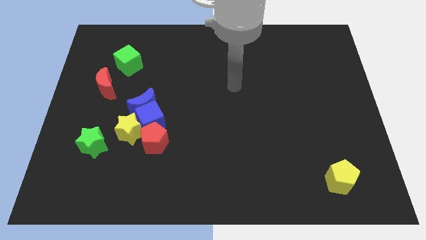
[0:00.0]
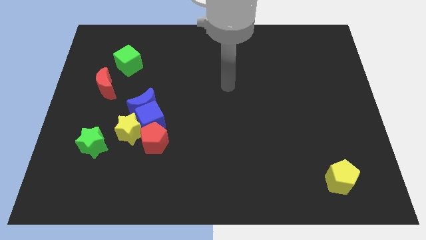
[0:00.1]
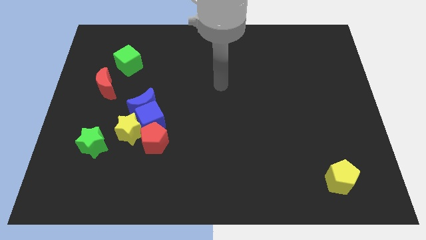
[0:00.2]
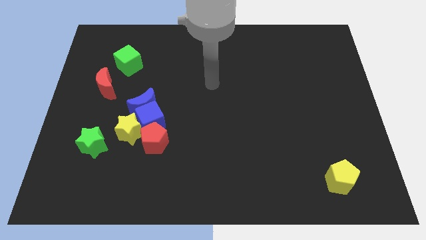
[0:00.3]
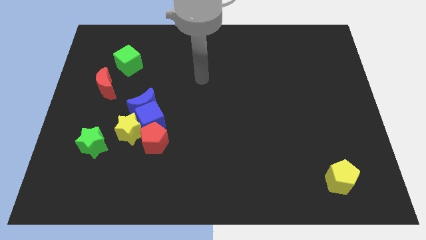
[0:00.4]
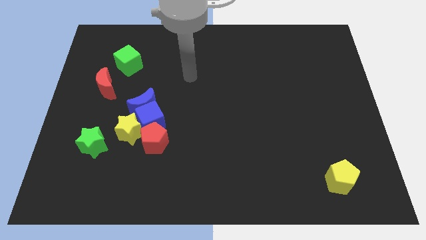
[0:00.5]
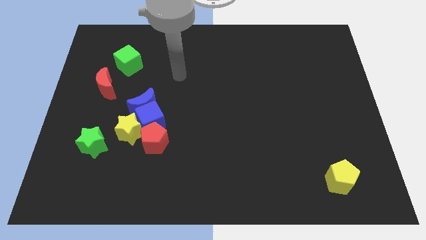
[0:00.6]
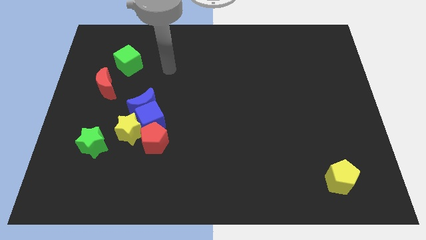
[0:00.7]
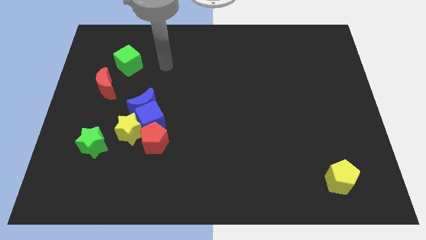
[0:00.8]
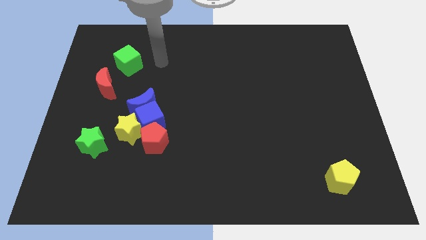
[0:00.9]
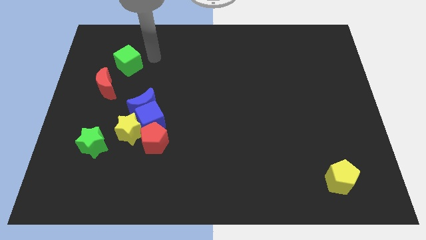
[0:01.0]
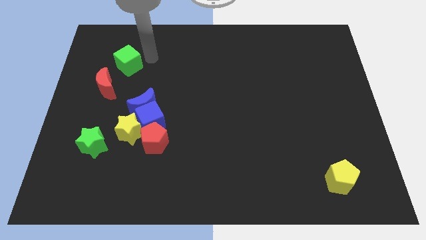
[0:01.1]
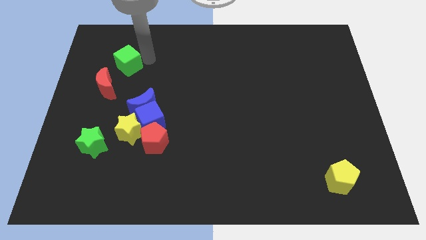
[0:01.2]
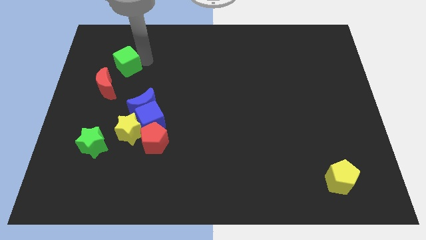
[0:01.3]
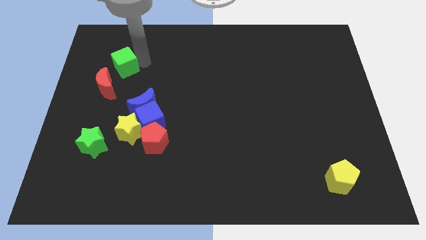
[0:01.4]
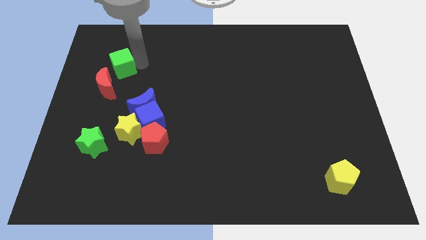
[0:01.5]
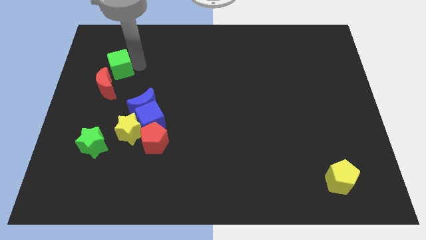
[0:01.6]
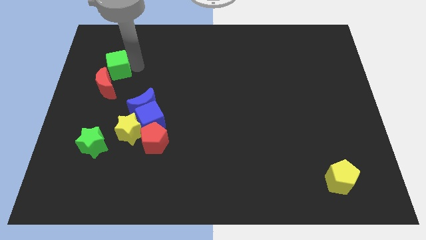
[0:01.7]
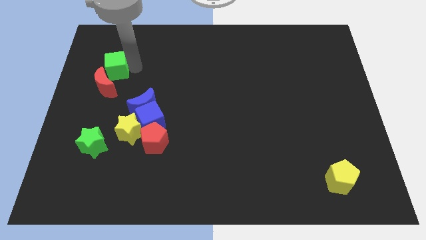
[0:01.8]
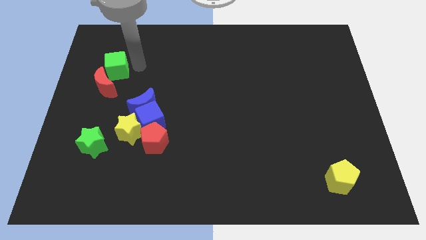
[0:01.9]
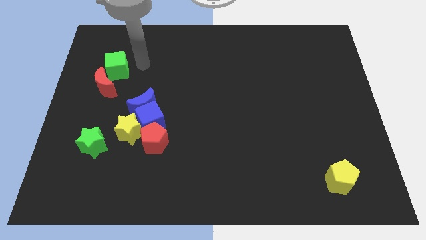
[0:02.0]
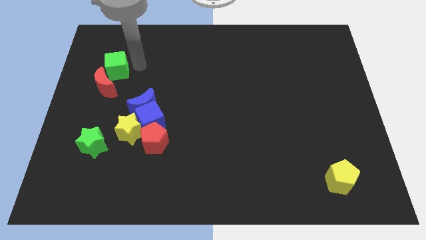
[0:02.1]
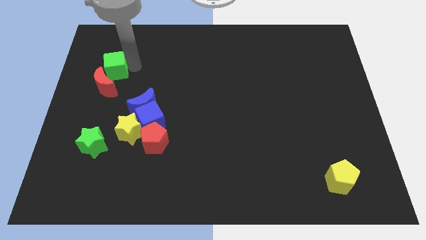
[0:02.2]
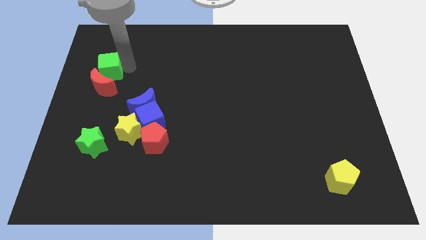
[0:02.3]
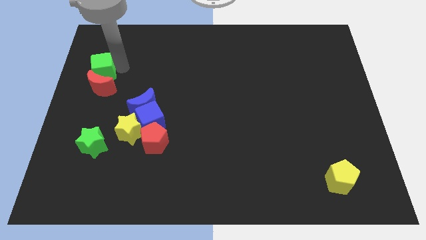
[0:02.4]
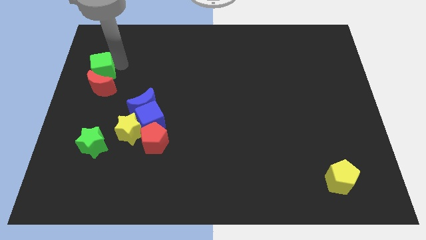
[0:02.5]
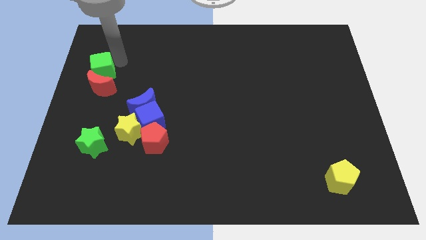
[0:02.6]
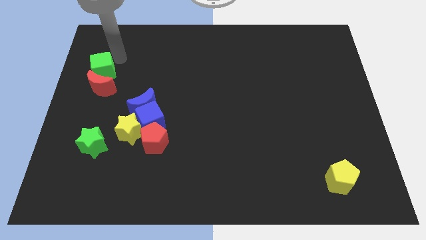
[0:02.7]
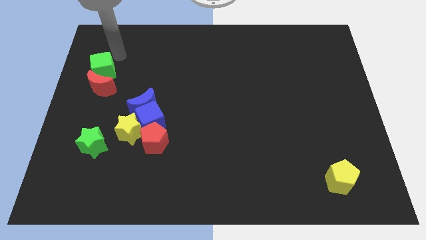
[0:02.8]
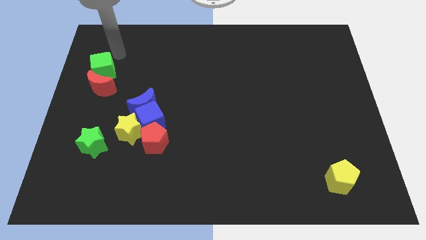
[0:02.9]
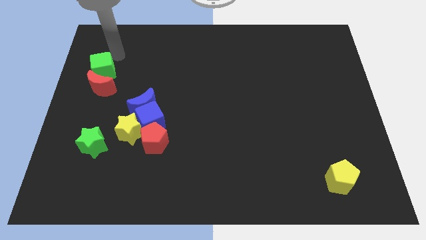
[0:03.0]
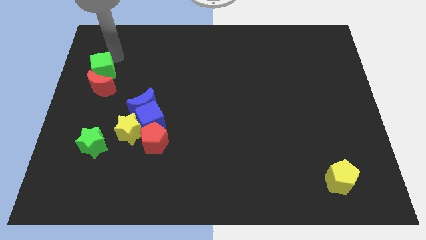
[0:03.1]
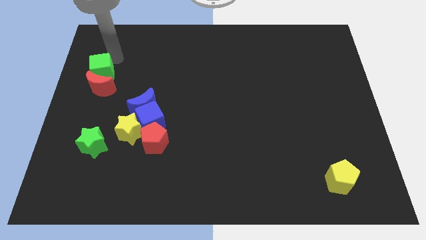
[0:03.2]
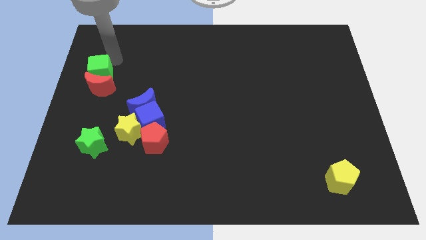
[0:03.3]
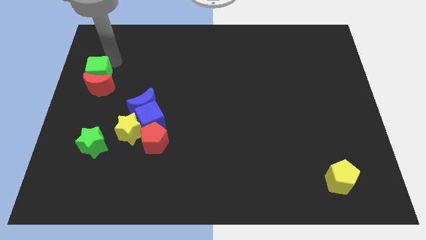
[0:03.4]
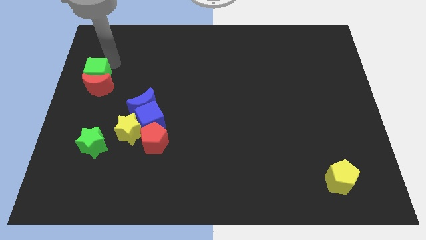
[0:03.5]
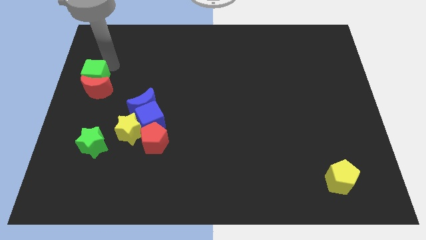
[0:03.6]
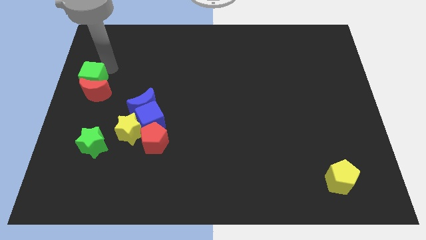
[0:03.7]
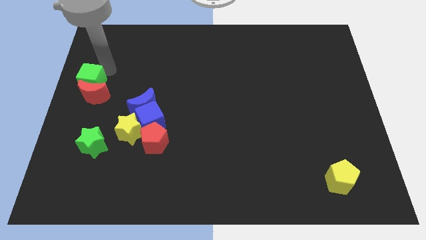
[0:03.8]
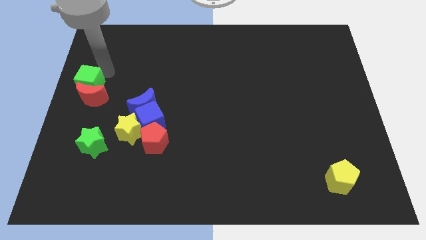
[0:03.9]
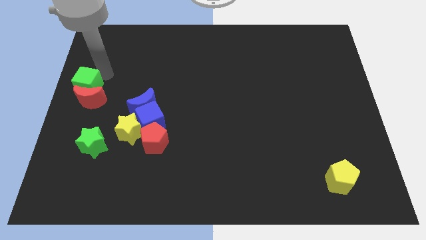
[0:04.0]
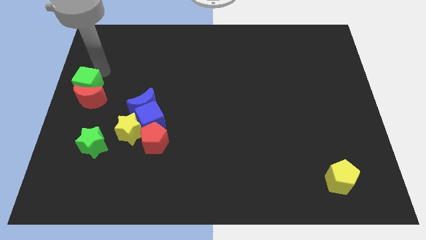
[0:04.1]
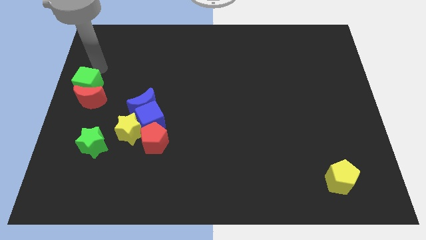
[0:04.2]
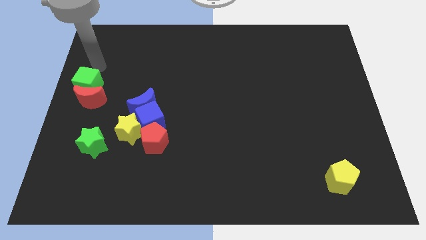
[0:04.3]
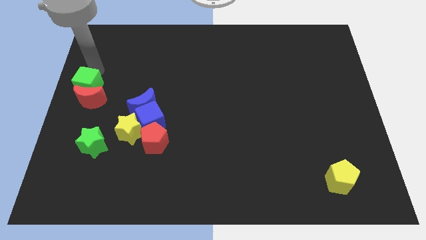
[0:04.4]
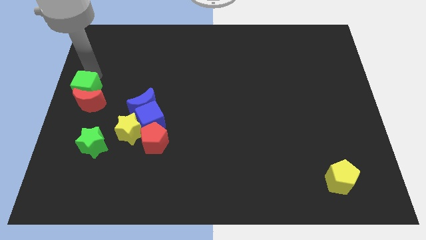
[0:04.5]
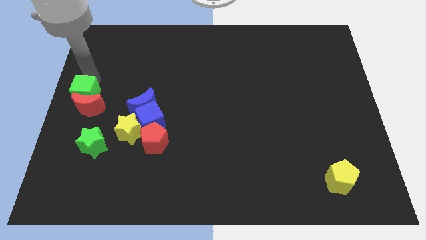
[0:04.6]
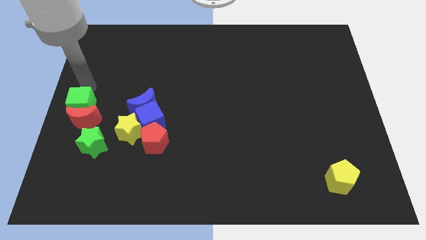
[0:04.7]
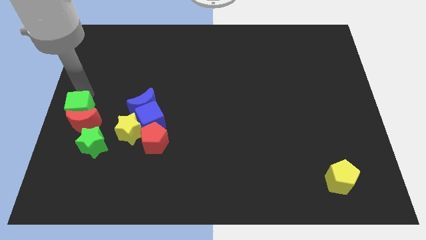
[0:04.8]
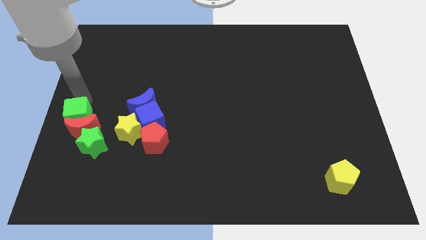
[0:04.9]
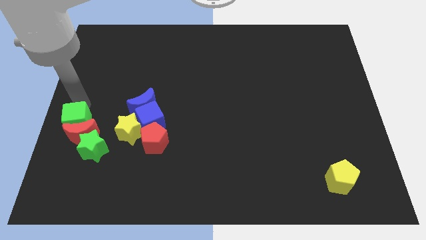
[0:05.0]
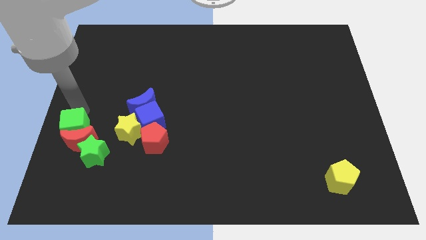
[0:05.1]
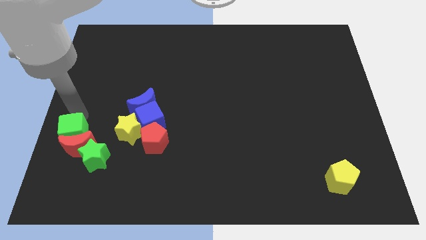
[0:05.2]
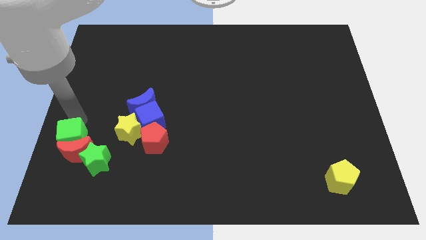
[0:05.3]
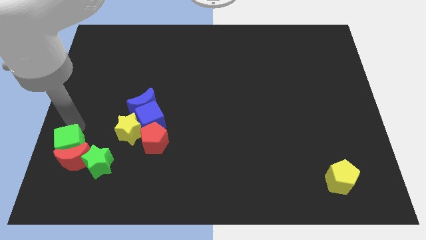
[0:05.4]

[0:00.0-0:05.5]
slide the green cube down

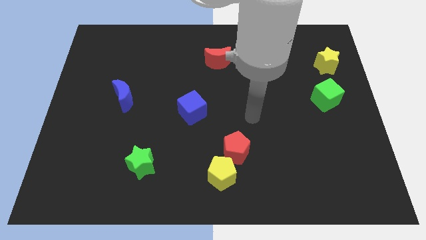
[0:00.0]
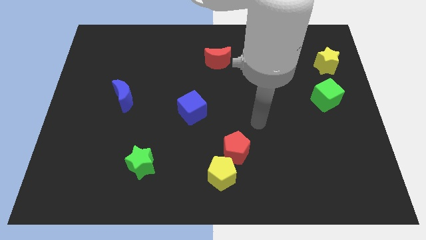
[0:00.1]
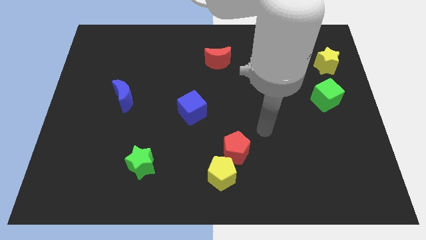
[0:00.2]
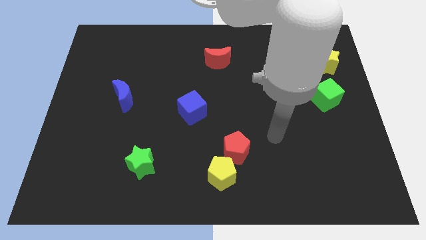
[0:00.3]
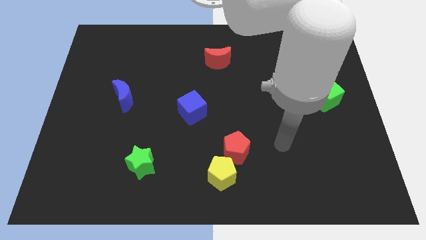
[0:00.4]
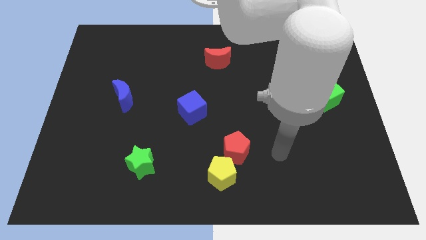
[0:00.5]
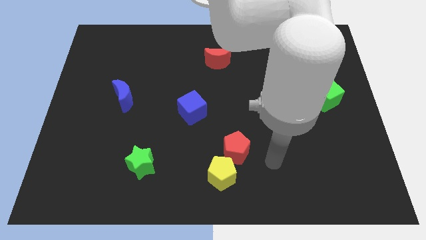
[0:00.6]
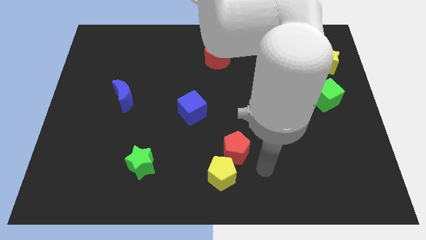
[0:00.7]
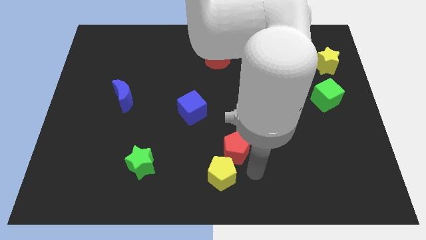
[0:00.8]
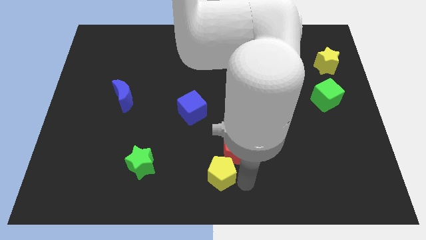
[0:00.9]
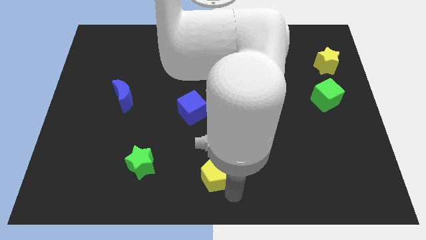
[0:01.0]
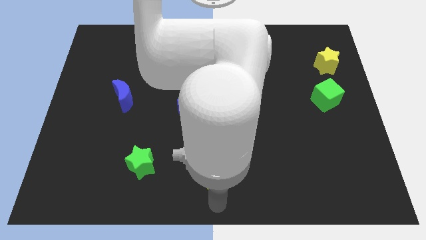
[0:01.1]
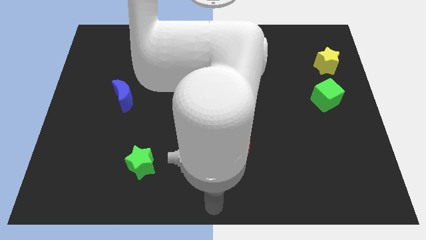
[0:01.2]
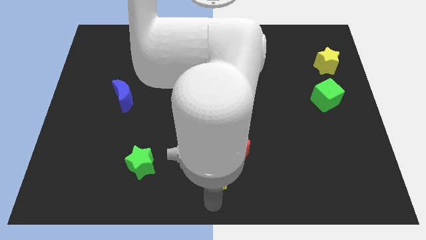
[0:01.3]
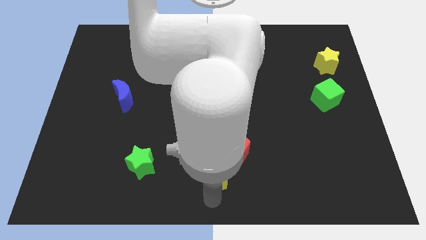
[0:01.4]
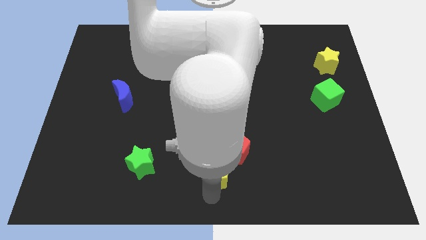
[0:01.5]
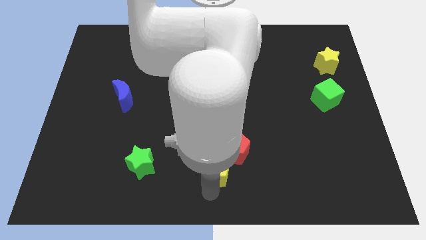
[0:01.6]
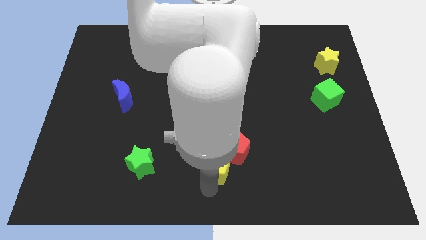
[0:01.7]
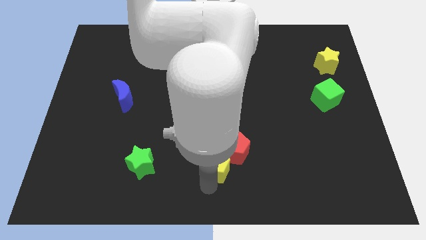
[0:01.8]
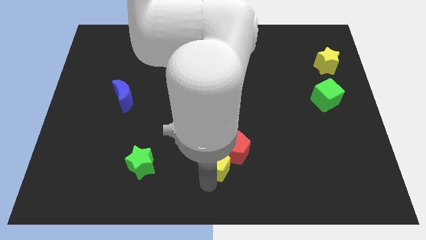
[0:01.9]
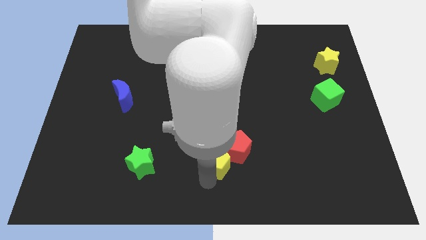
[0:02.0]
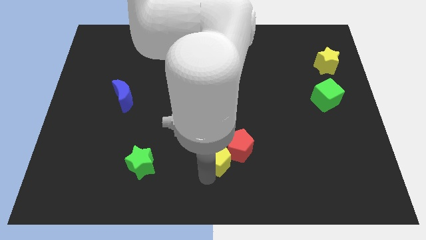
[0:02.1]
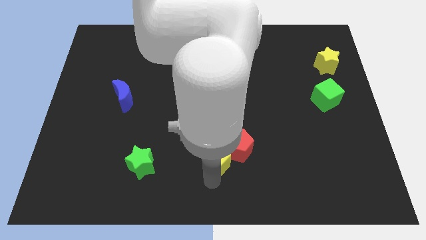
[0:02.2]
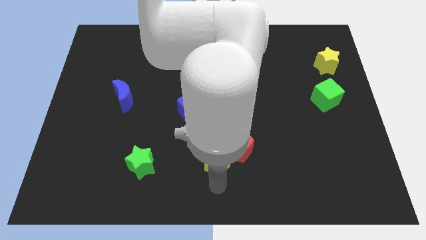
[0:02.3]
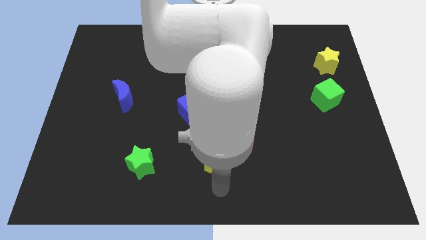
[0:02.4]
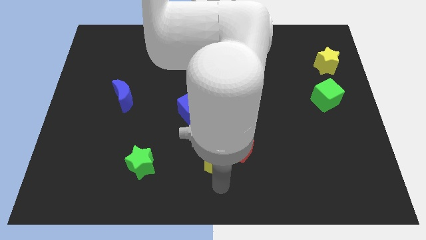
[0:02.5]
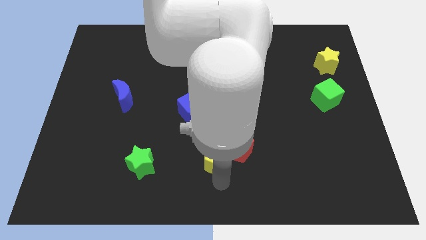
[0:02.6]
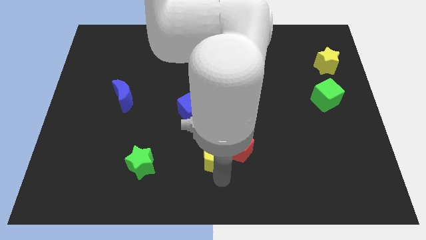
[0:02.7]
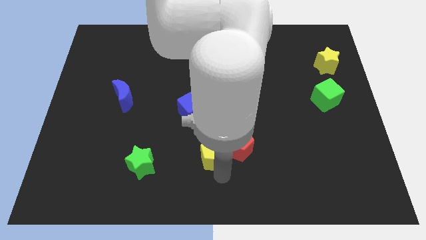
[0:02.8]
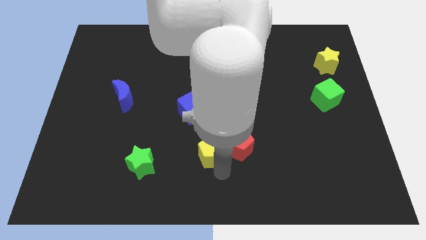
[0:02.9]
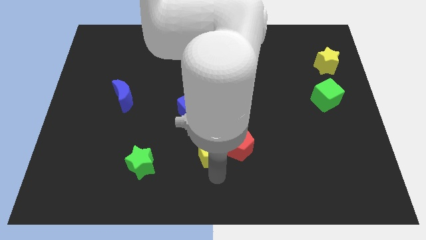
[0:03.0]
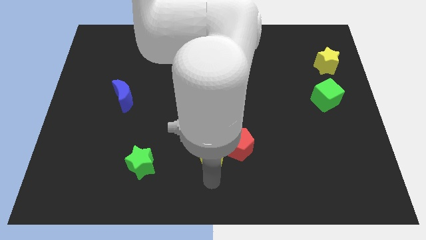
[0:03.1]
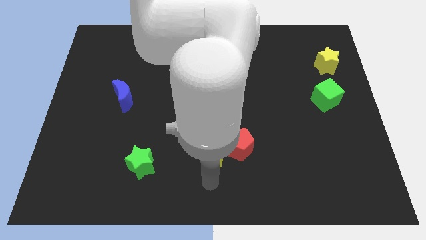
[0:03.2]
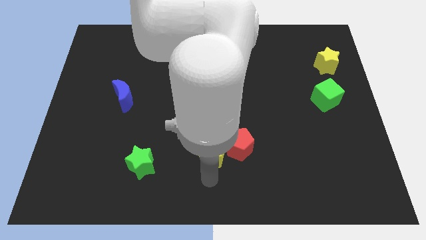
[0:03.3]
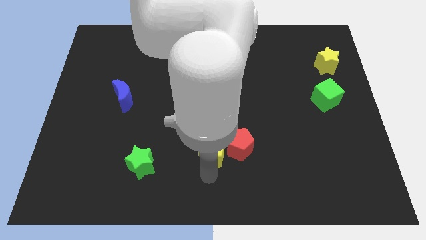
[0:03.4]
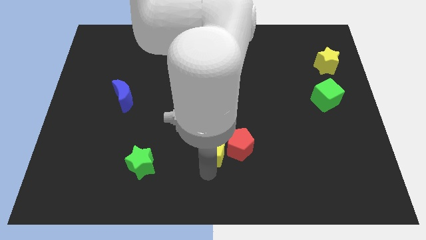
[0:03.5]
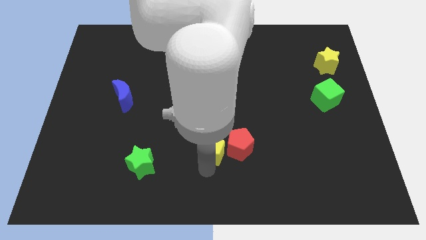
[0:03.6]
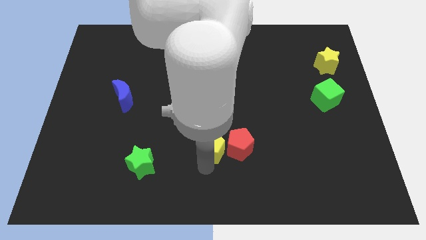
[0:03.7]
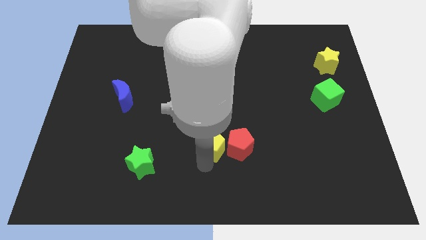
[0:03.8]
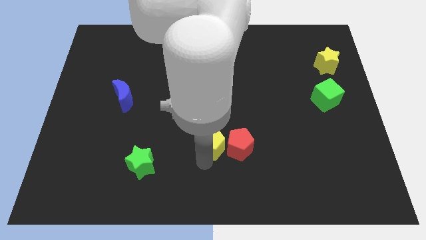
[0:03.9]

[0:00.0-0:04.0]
push the yellow pentagon slightly up
